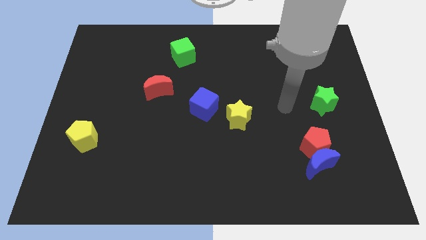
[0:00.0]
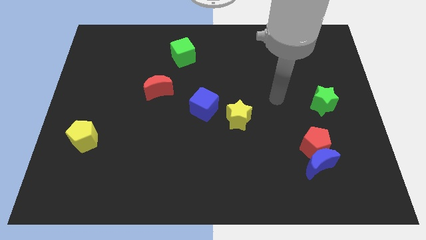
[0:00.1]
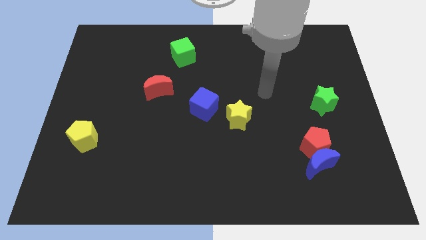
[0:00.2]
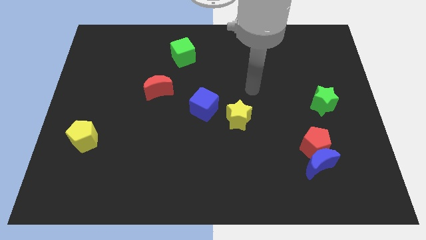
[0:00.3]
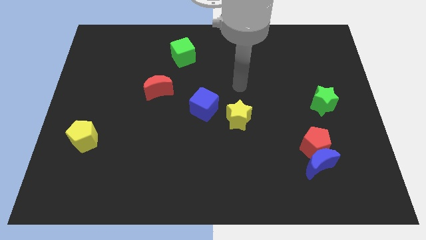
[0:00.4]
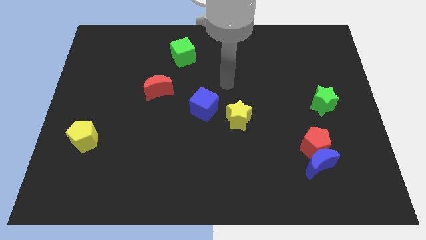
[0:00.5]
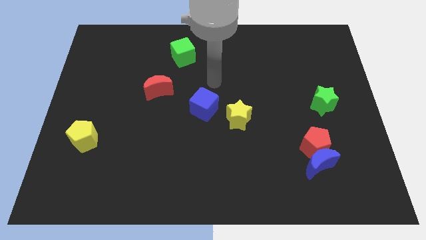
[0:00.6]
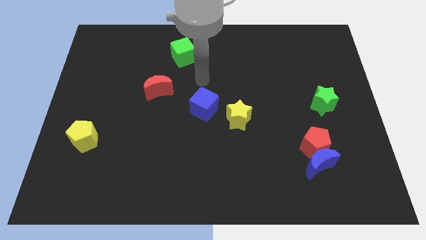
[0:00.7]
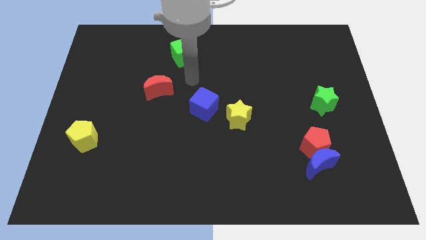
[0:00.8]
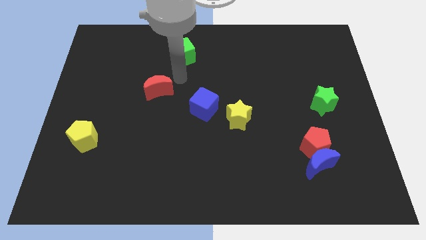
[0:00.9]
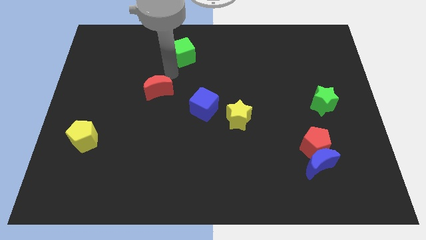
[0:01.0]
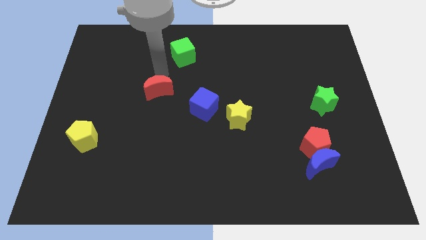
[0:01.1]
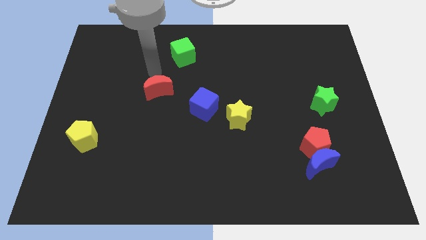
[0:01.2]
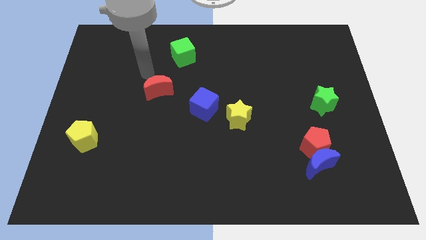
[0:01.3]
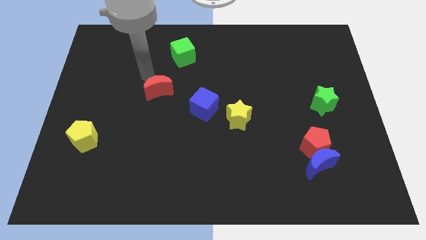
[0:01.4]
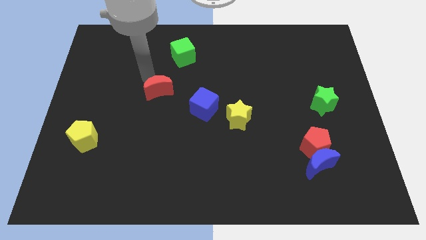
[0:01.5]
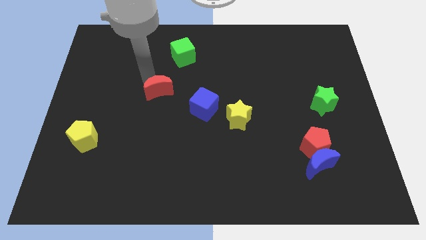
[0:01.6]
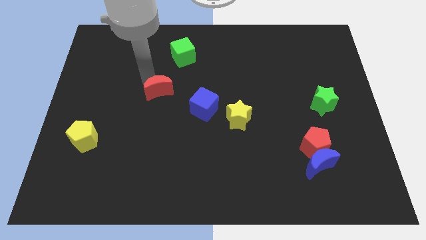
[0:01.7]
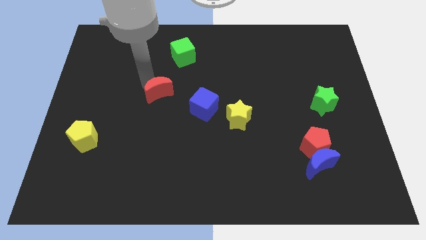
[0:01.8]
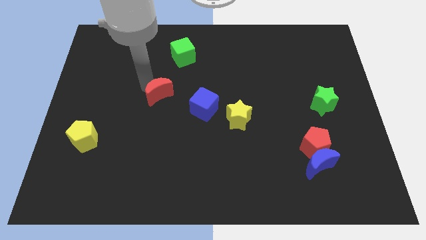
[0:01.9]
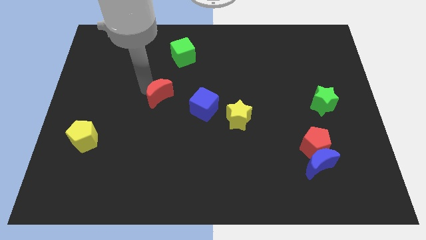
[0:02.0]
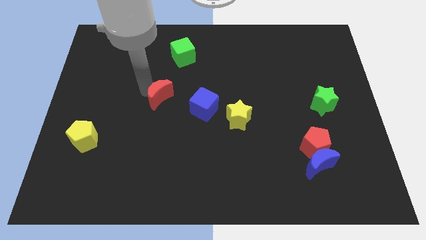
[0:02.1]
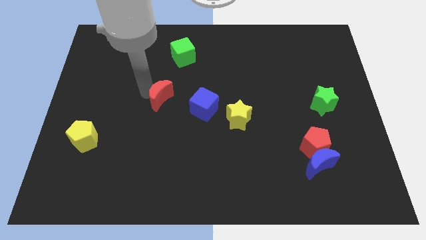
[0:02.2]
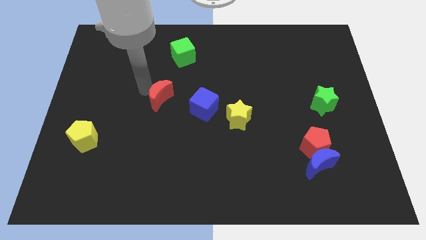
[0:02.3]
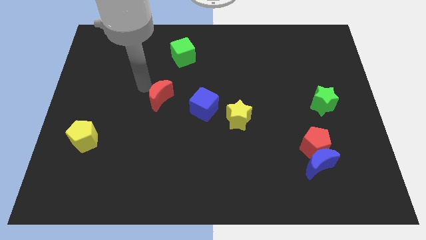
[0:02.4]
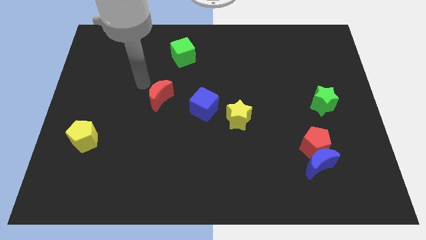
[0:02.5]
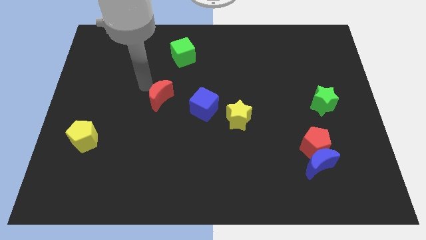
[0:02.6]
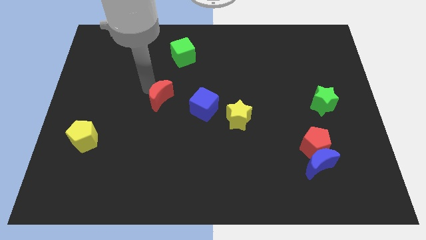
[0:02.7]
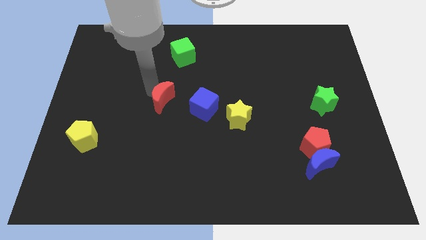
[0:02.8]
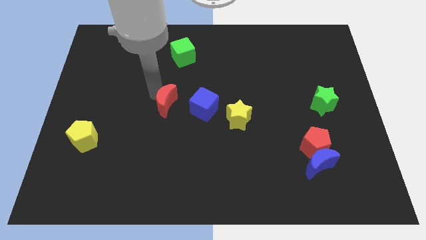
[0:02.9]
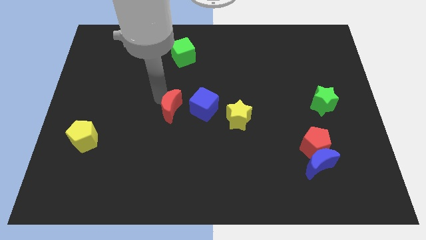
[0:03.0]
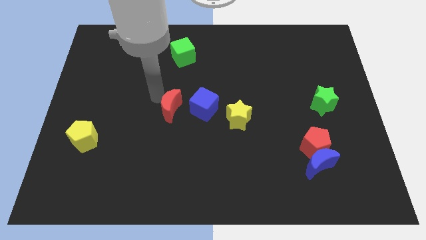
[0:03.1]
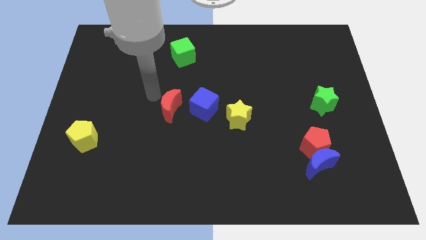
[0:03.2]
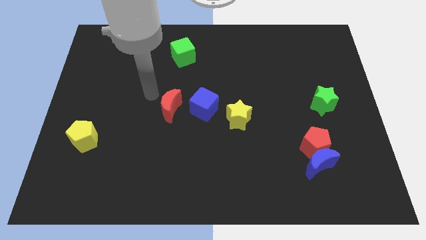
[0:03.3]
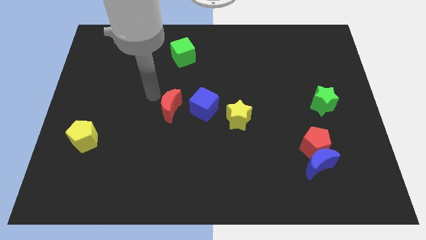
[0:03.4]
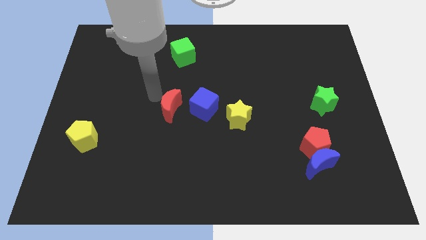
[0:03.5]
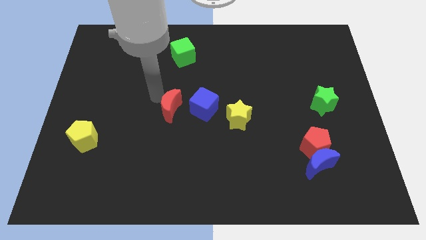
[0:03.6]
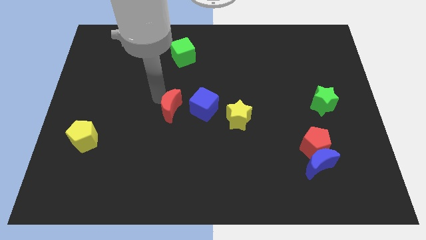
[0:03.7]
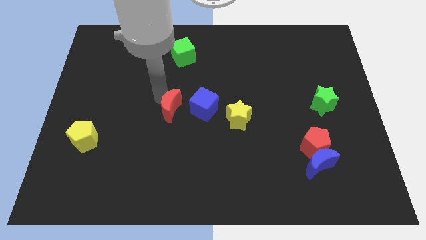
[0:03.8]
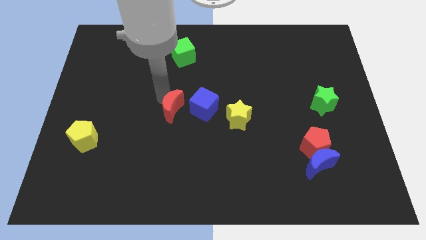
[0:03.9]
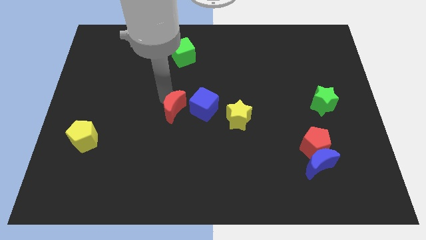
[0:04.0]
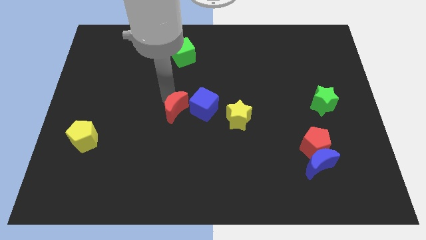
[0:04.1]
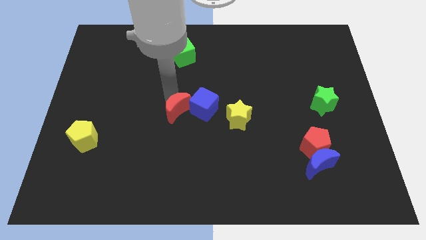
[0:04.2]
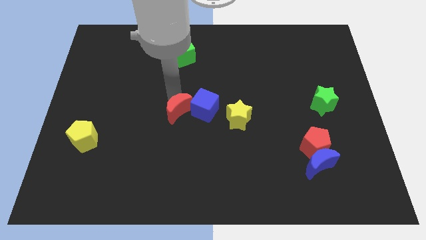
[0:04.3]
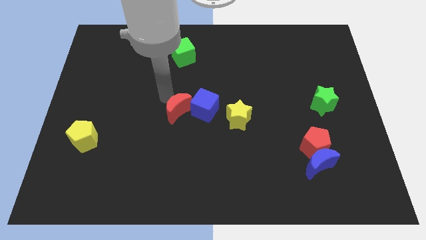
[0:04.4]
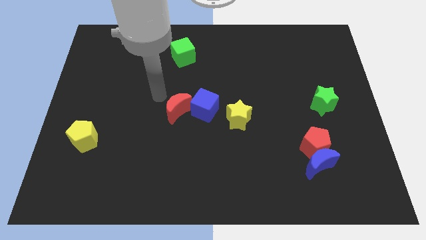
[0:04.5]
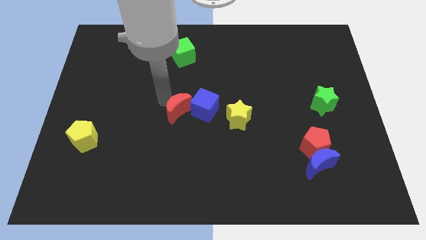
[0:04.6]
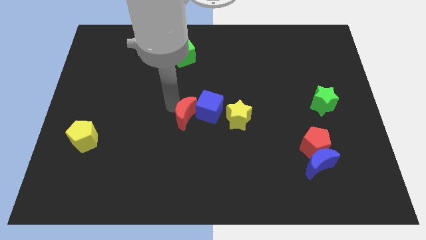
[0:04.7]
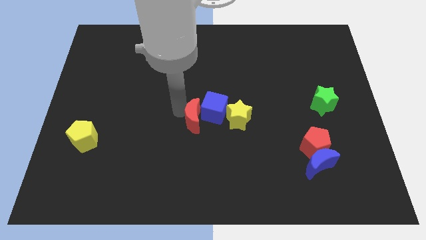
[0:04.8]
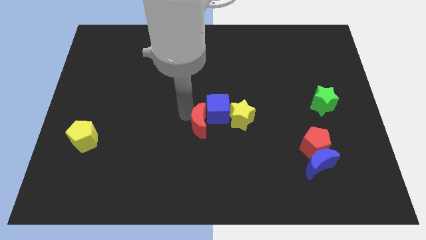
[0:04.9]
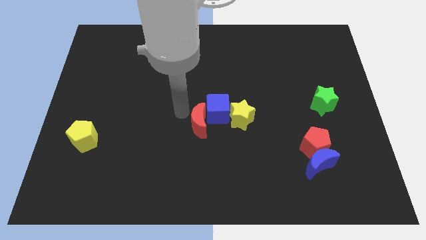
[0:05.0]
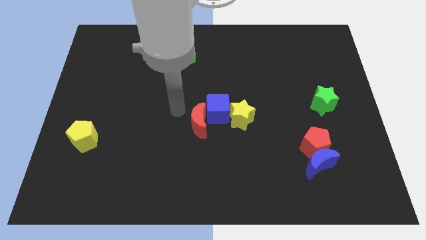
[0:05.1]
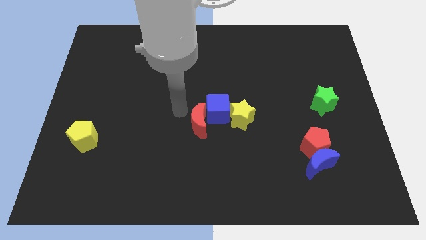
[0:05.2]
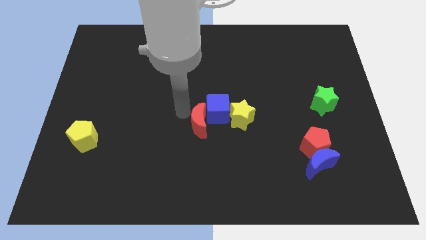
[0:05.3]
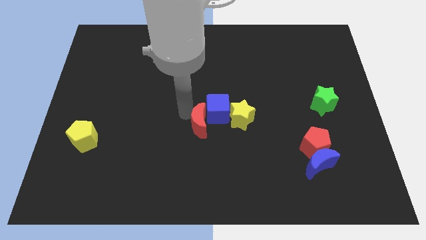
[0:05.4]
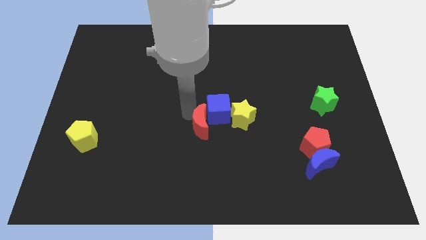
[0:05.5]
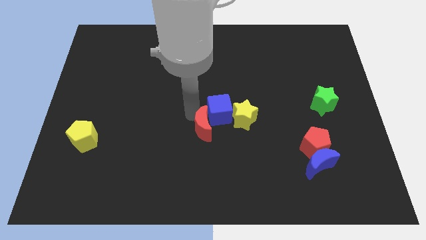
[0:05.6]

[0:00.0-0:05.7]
push the red moon to the bottom left of the yellow star

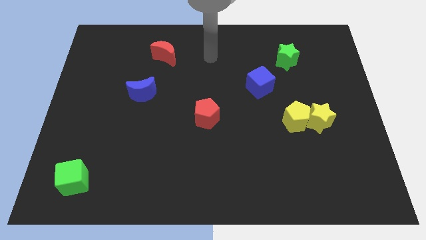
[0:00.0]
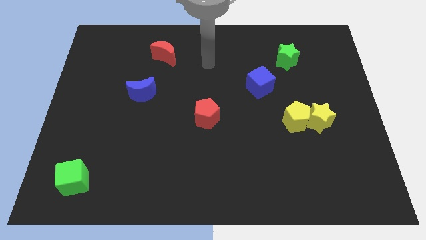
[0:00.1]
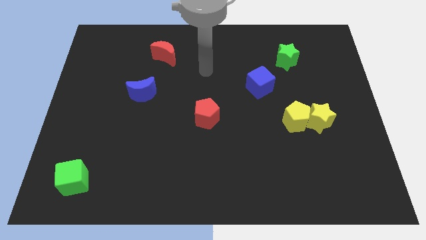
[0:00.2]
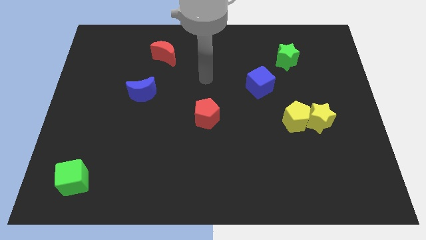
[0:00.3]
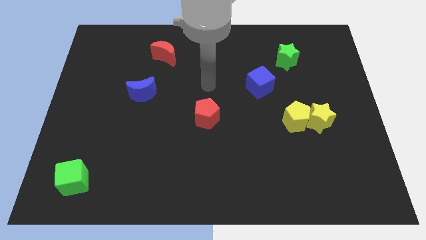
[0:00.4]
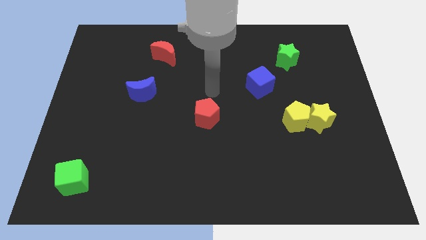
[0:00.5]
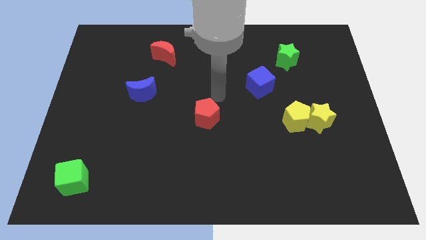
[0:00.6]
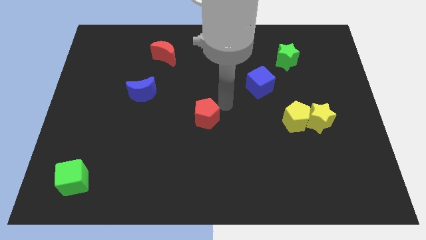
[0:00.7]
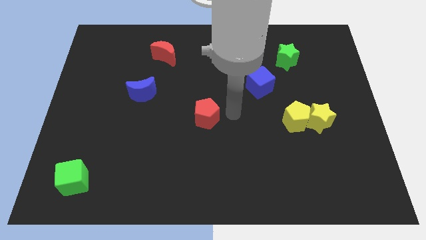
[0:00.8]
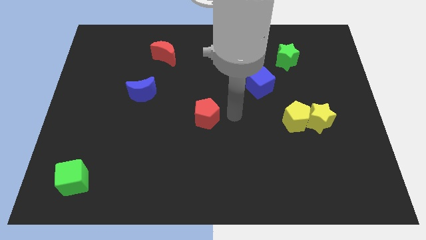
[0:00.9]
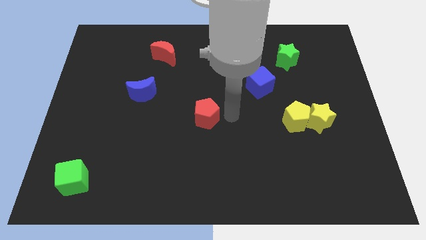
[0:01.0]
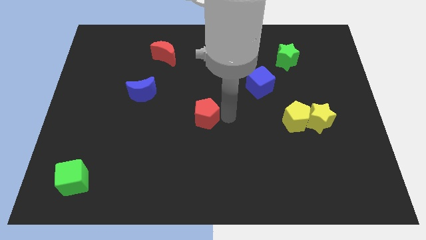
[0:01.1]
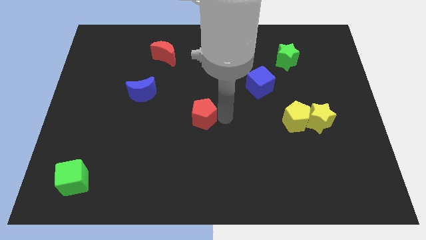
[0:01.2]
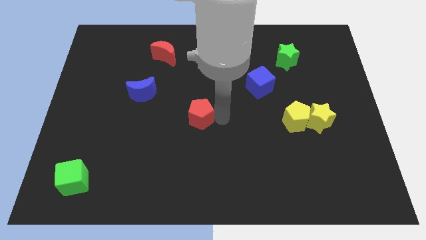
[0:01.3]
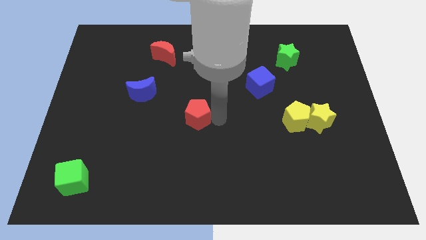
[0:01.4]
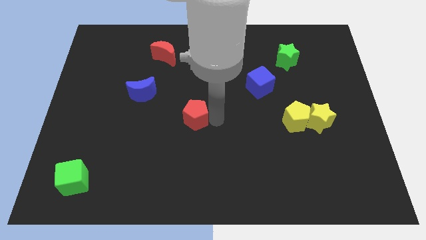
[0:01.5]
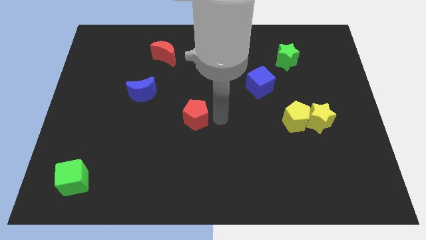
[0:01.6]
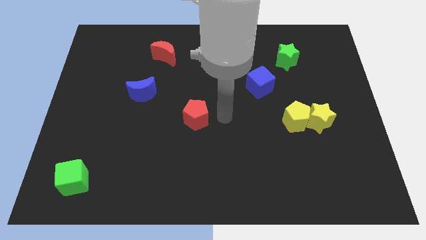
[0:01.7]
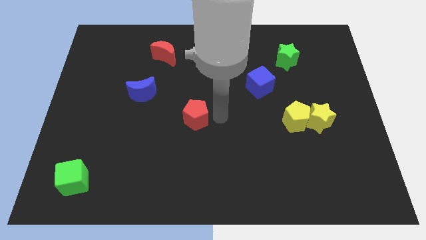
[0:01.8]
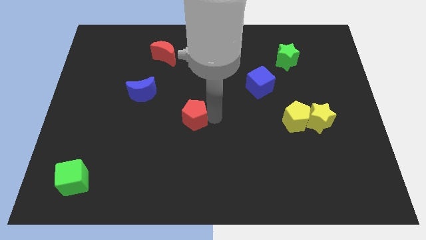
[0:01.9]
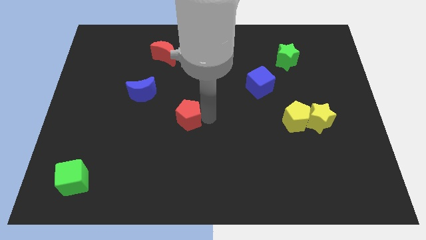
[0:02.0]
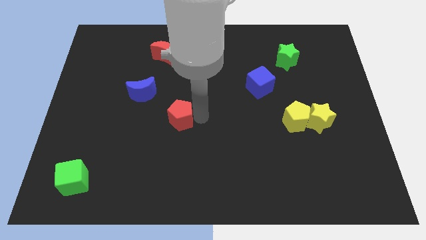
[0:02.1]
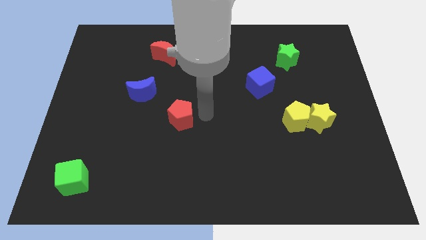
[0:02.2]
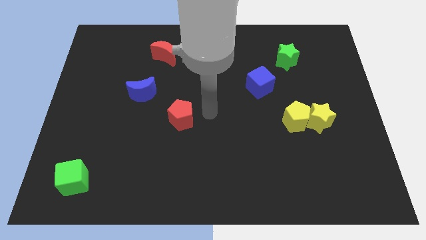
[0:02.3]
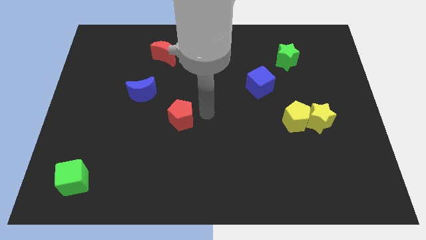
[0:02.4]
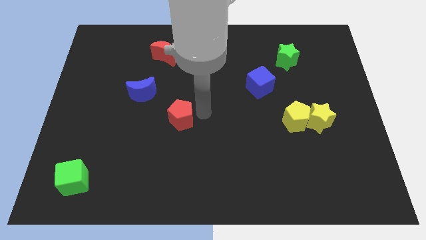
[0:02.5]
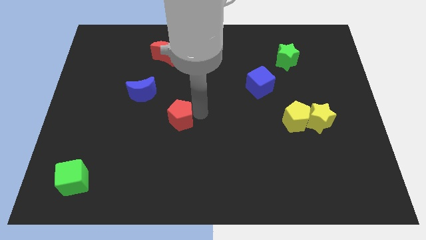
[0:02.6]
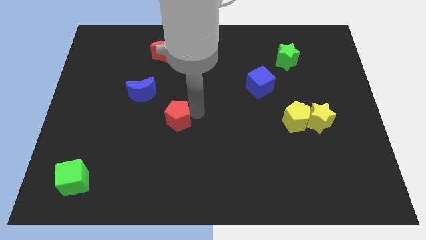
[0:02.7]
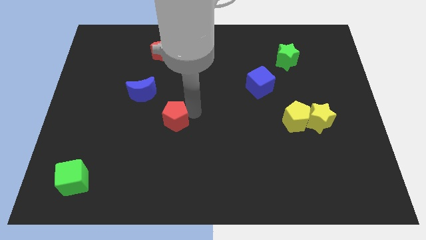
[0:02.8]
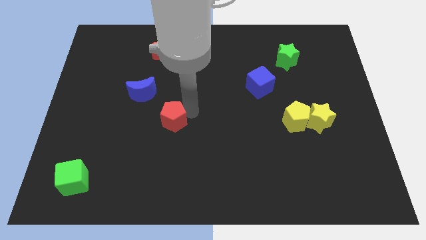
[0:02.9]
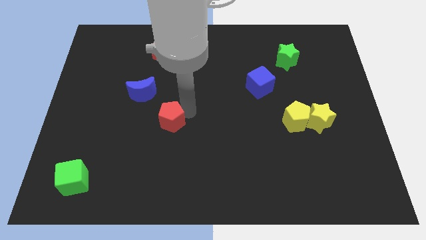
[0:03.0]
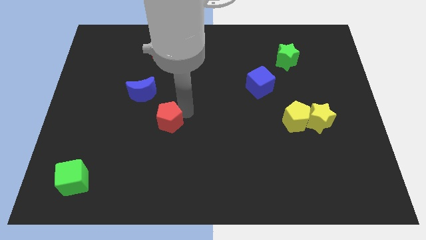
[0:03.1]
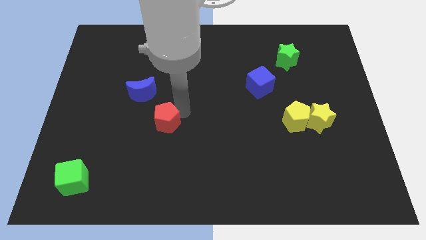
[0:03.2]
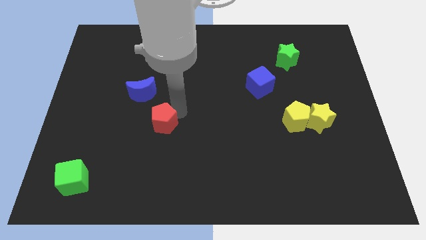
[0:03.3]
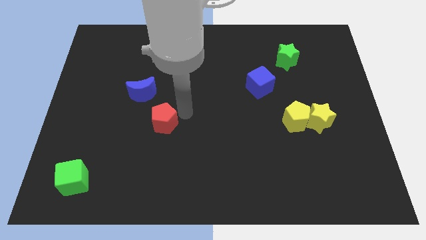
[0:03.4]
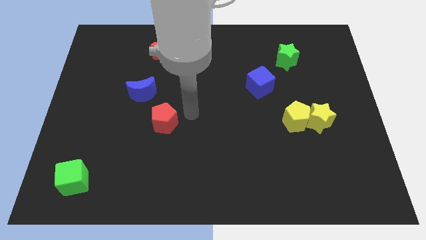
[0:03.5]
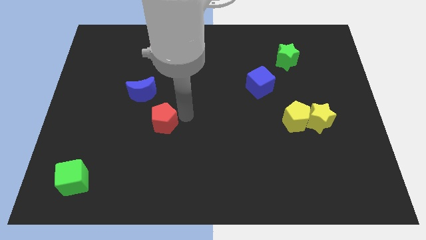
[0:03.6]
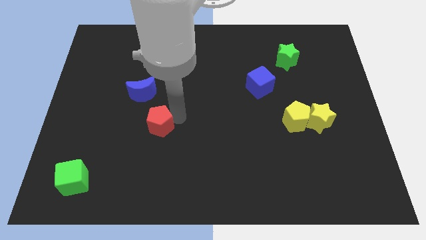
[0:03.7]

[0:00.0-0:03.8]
move the red pentagon to the bottom side of the blue moon
